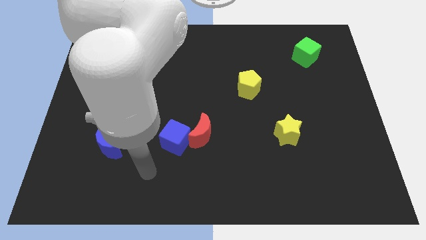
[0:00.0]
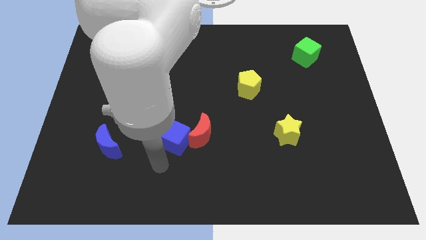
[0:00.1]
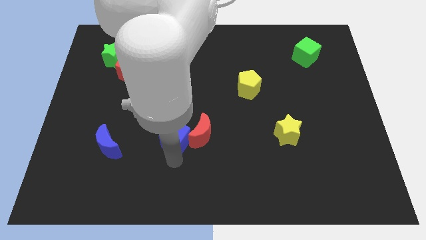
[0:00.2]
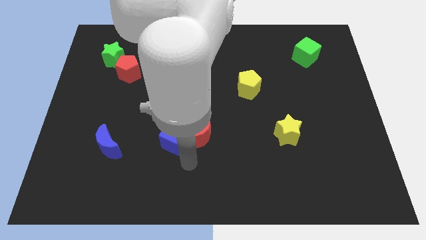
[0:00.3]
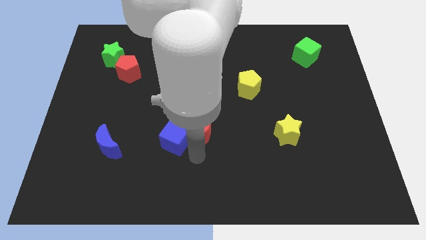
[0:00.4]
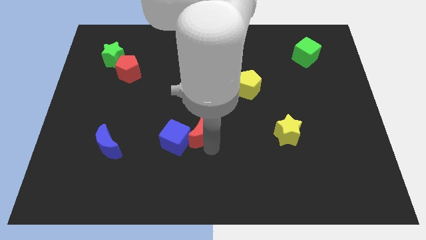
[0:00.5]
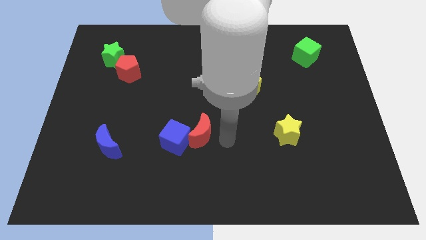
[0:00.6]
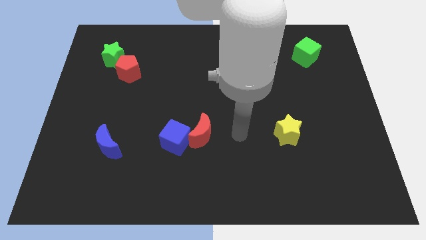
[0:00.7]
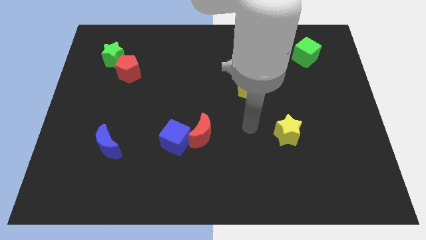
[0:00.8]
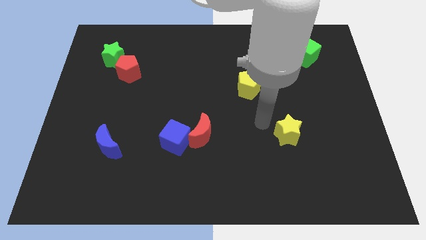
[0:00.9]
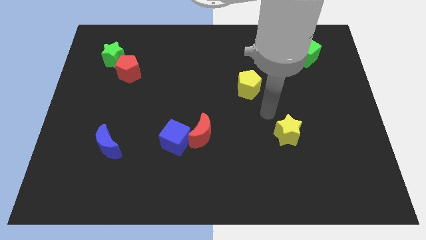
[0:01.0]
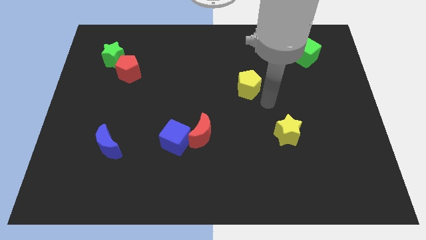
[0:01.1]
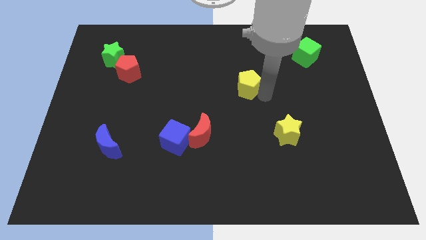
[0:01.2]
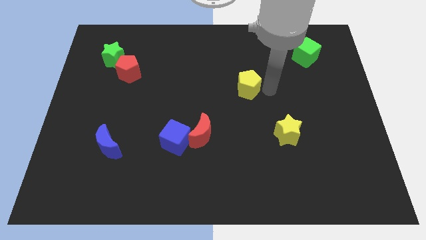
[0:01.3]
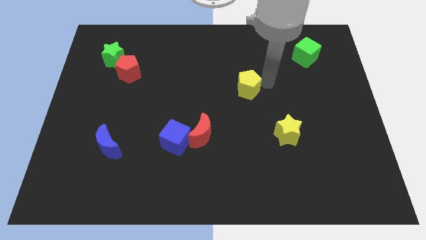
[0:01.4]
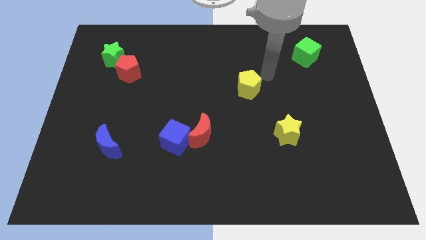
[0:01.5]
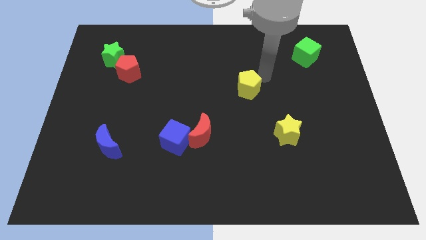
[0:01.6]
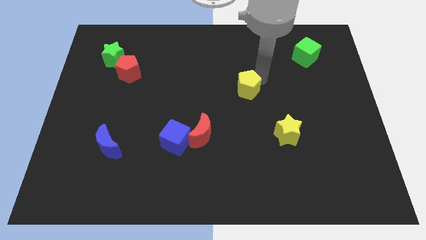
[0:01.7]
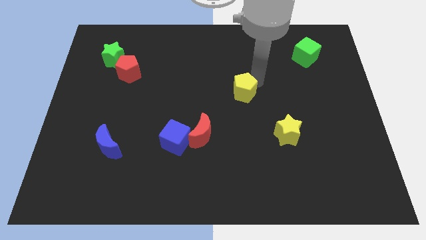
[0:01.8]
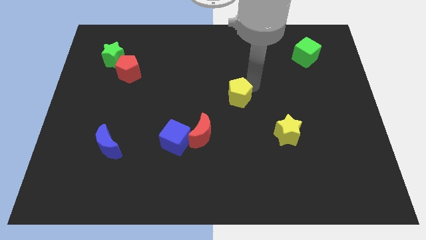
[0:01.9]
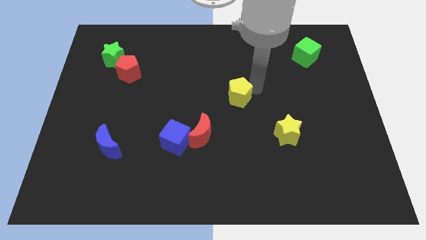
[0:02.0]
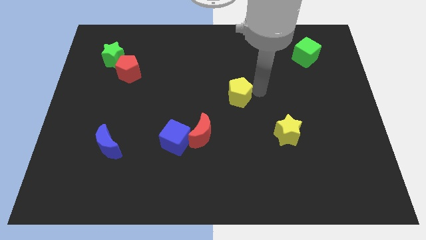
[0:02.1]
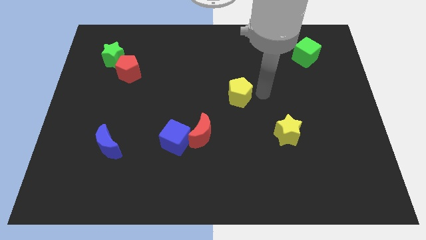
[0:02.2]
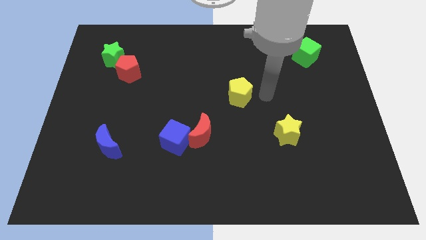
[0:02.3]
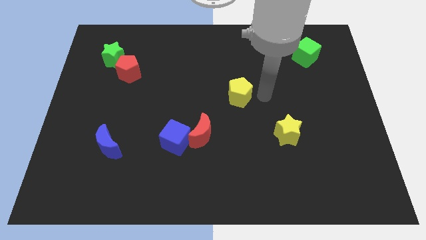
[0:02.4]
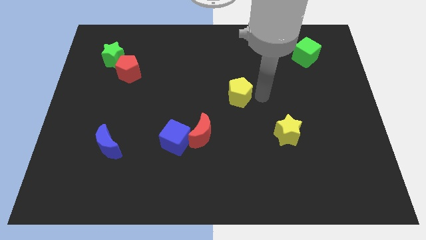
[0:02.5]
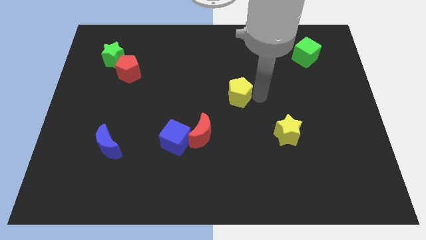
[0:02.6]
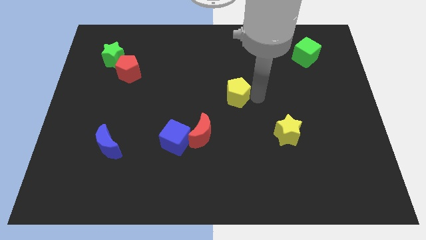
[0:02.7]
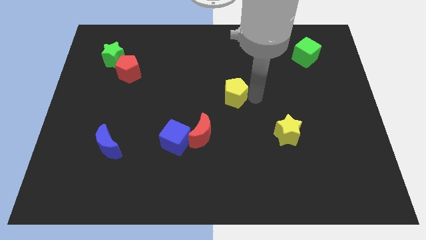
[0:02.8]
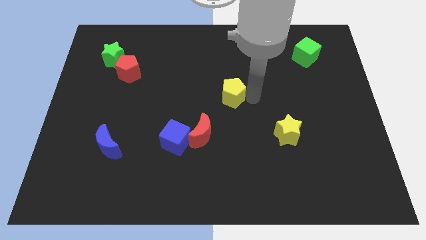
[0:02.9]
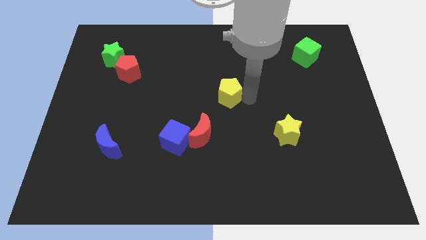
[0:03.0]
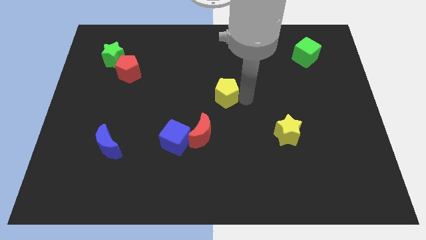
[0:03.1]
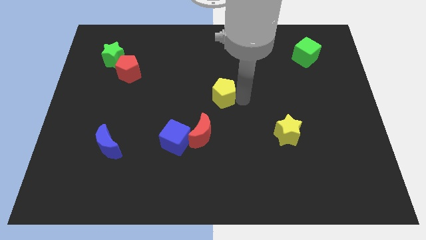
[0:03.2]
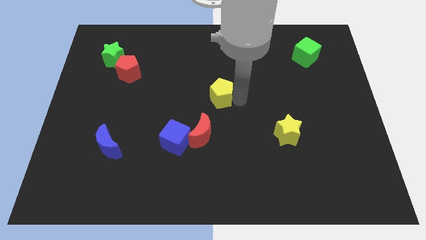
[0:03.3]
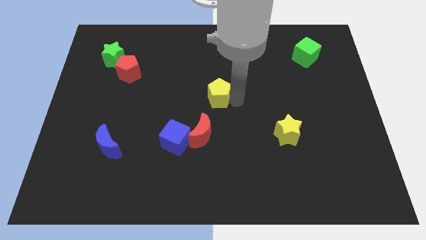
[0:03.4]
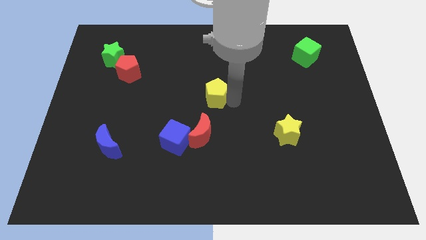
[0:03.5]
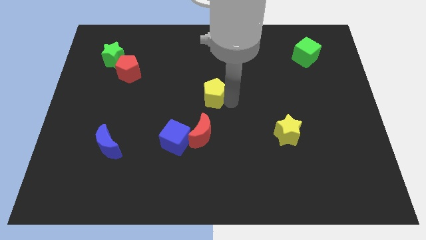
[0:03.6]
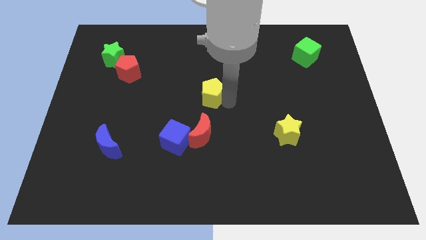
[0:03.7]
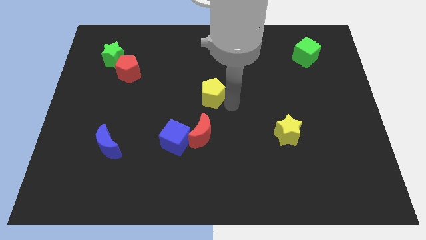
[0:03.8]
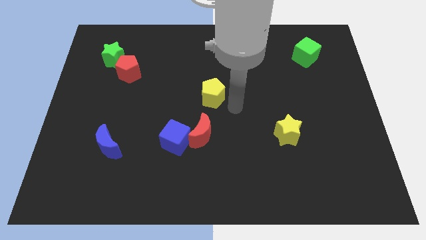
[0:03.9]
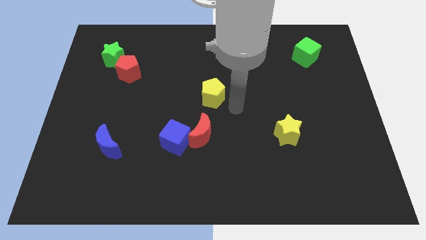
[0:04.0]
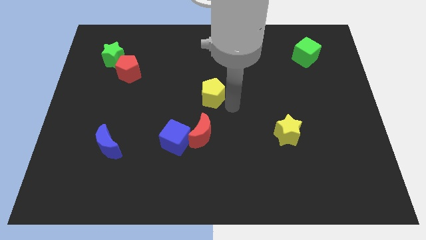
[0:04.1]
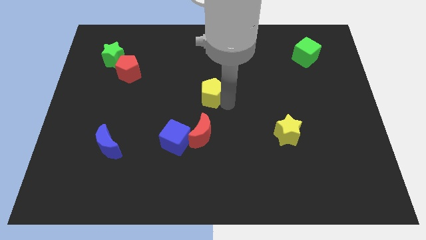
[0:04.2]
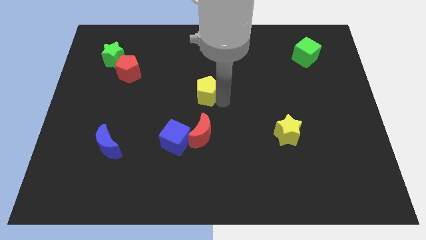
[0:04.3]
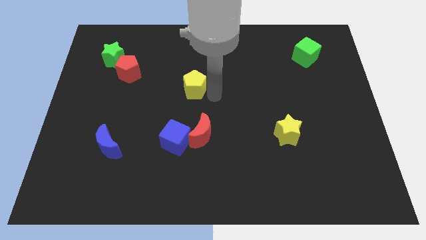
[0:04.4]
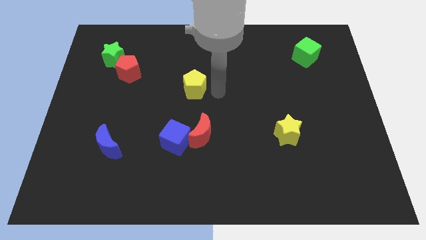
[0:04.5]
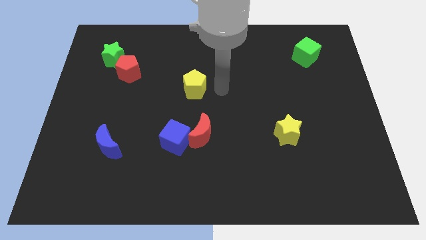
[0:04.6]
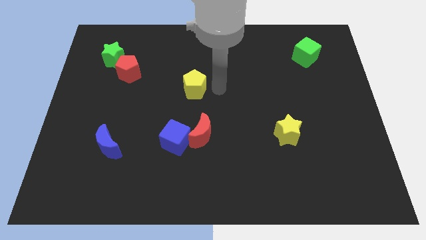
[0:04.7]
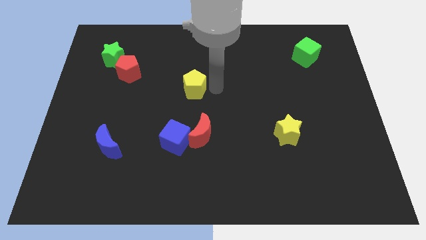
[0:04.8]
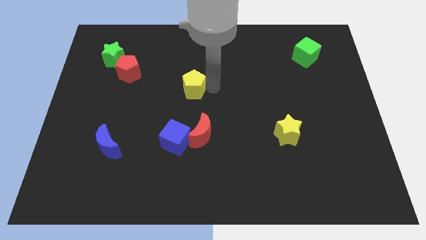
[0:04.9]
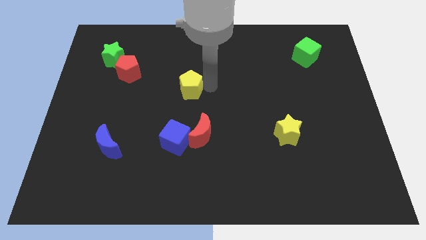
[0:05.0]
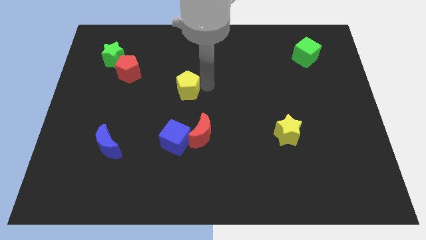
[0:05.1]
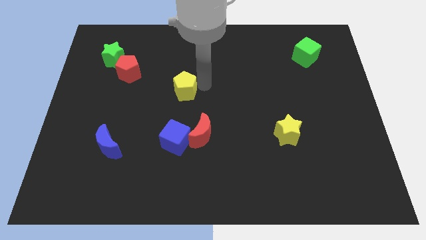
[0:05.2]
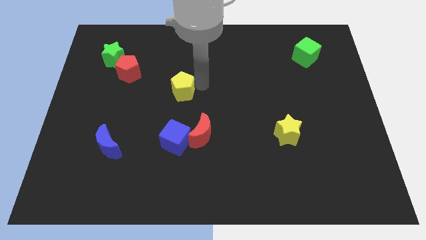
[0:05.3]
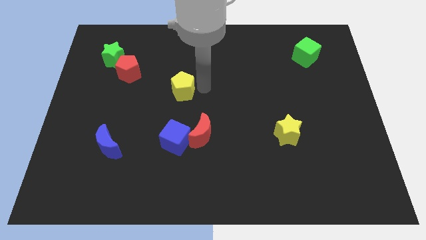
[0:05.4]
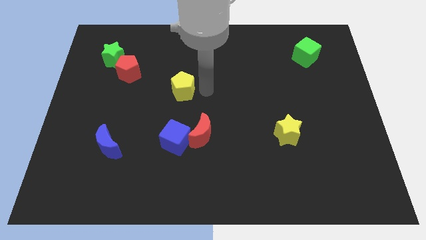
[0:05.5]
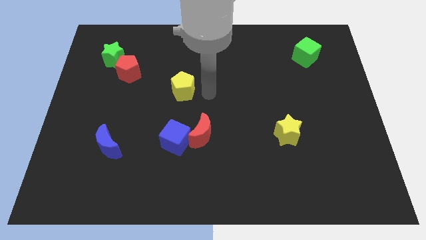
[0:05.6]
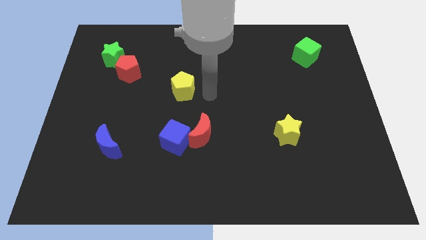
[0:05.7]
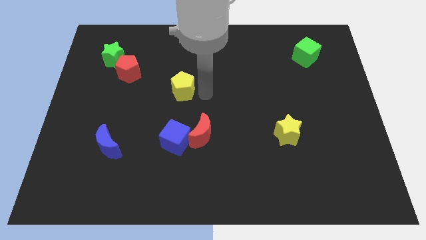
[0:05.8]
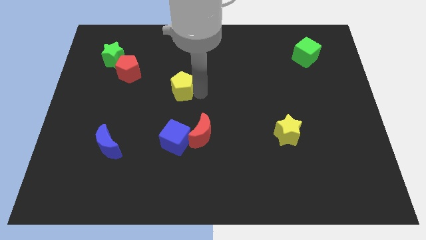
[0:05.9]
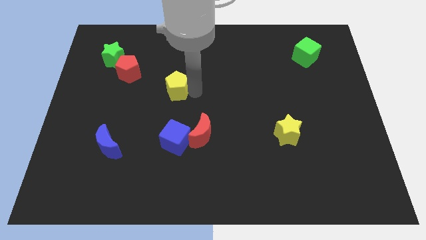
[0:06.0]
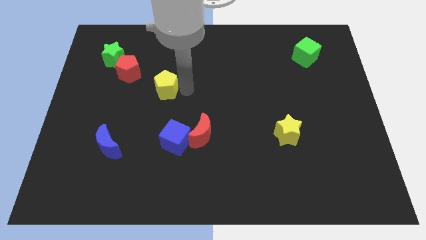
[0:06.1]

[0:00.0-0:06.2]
push the yellow pentagon left

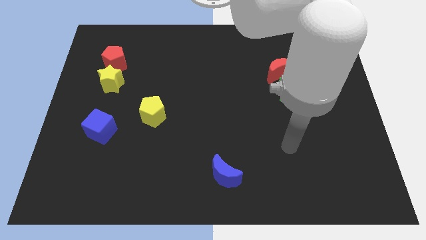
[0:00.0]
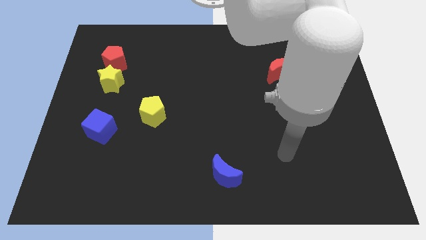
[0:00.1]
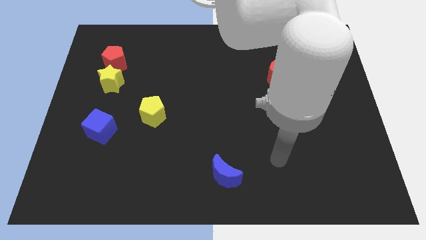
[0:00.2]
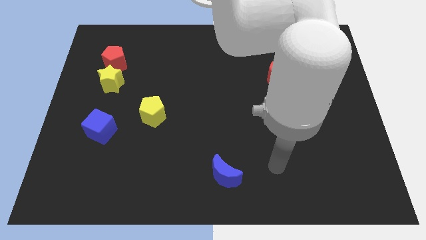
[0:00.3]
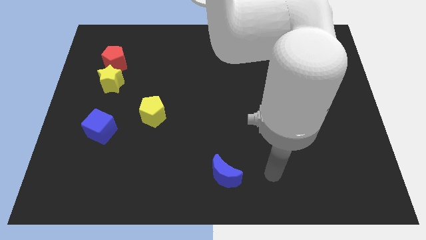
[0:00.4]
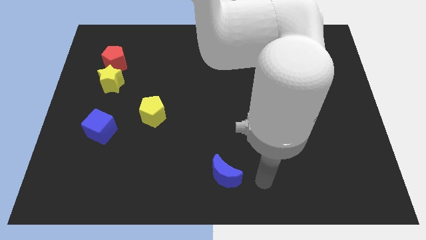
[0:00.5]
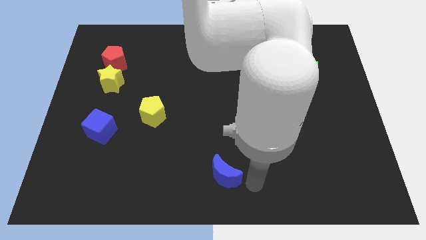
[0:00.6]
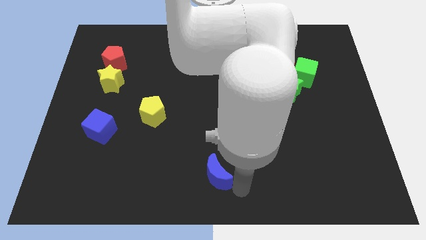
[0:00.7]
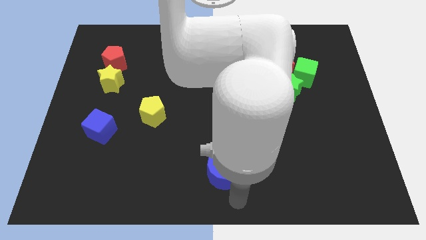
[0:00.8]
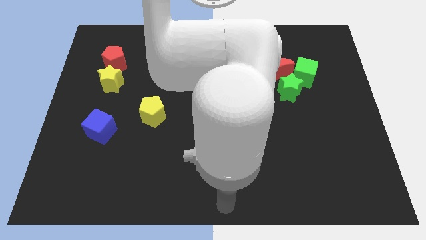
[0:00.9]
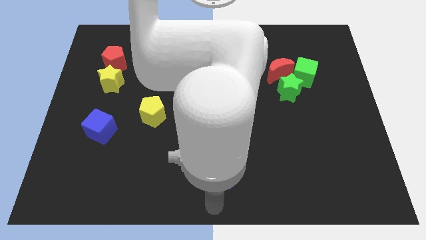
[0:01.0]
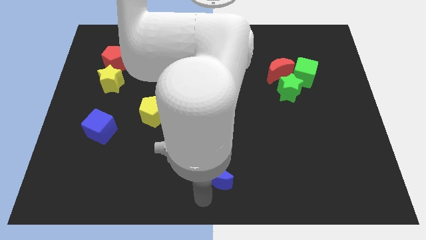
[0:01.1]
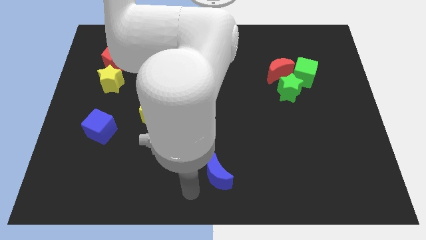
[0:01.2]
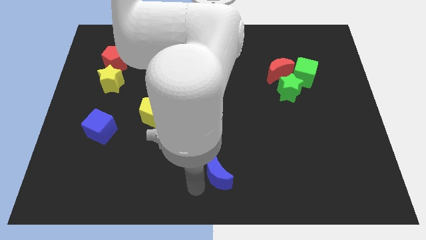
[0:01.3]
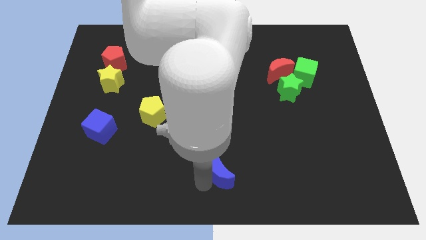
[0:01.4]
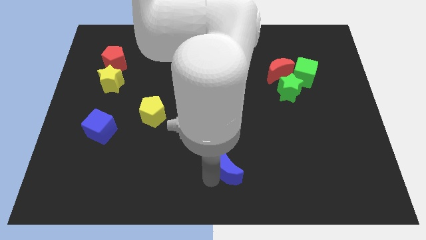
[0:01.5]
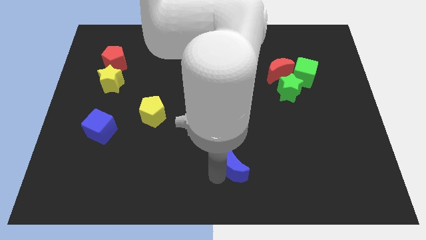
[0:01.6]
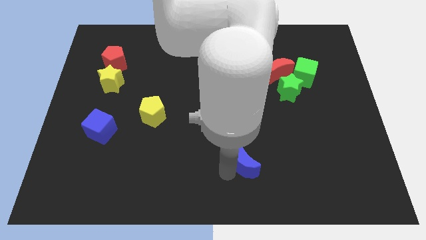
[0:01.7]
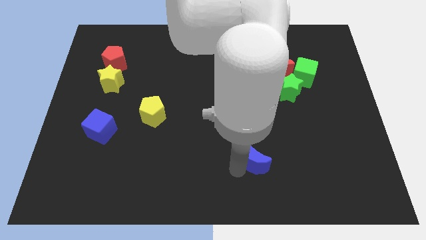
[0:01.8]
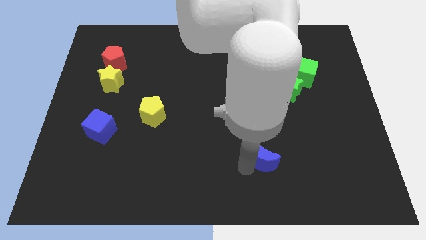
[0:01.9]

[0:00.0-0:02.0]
slightly slide the blue moon diagonally up and to the right
